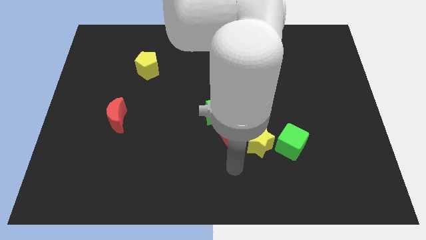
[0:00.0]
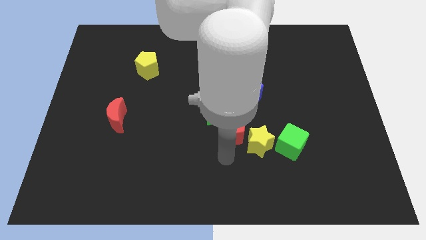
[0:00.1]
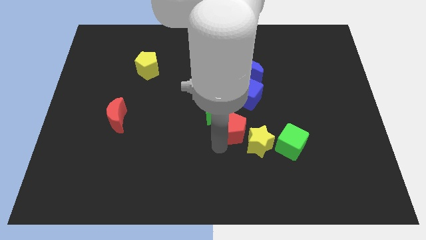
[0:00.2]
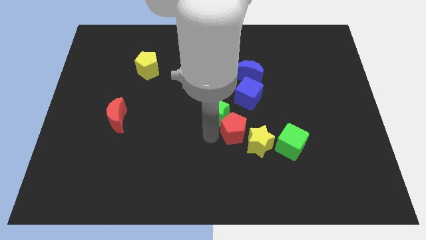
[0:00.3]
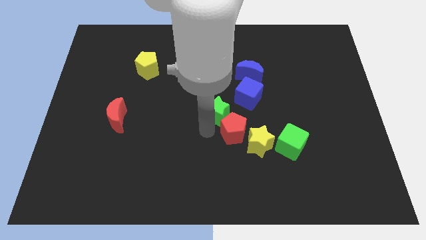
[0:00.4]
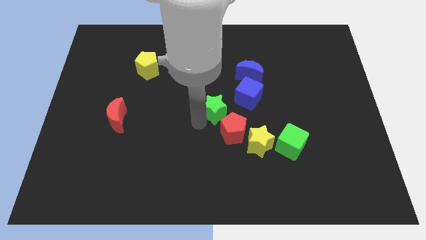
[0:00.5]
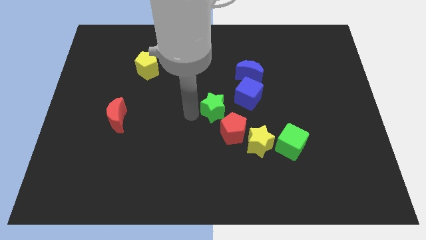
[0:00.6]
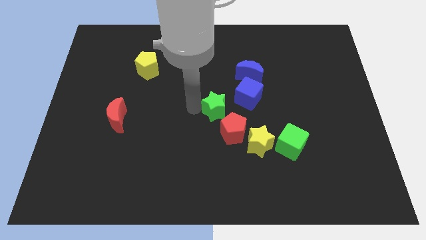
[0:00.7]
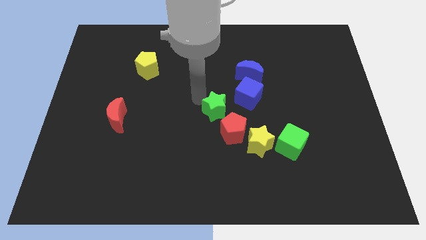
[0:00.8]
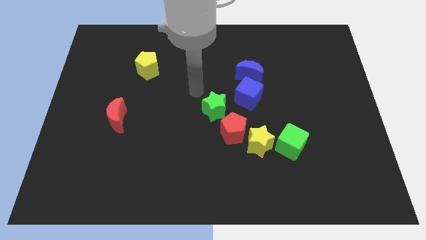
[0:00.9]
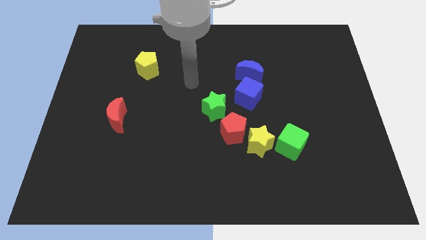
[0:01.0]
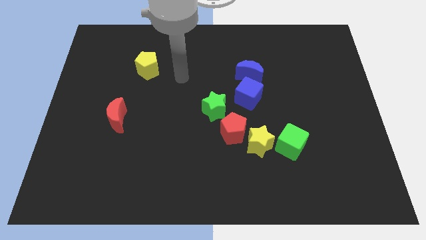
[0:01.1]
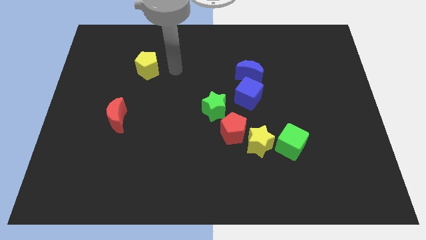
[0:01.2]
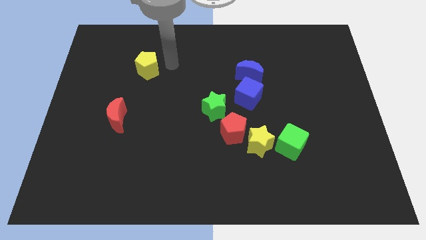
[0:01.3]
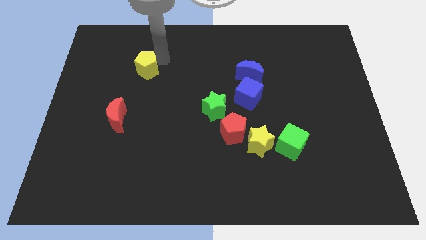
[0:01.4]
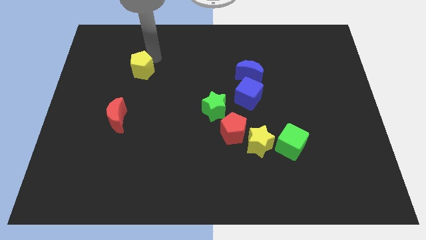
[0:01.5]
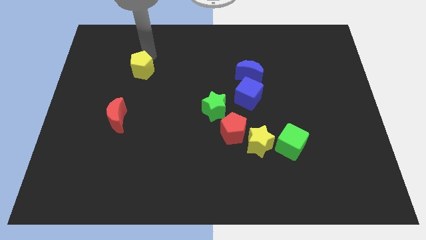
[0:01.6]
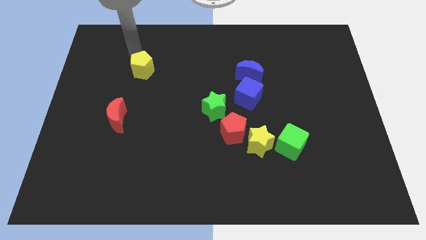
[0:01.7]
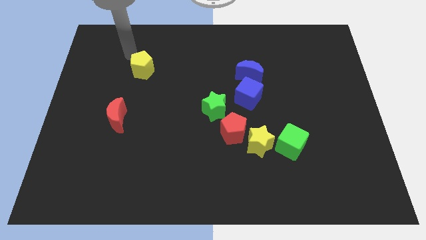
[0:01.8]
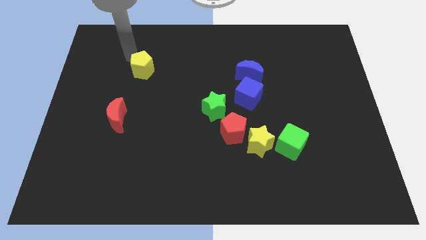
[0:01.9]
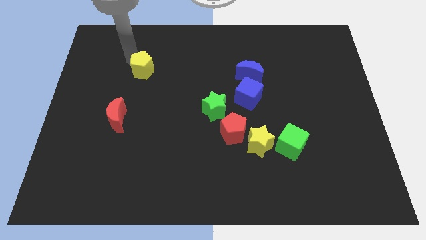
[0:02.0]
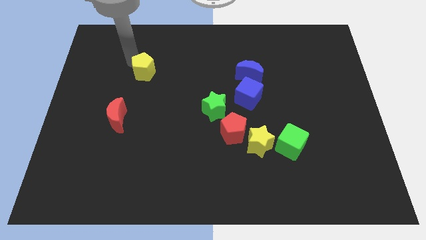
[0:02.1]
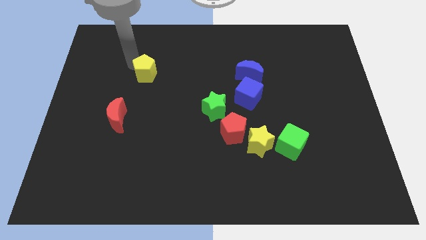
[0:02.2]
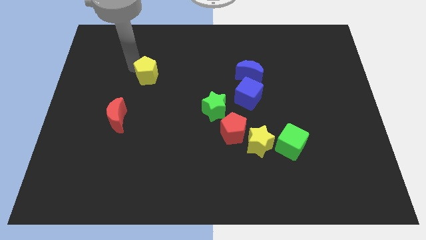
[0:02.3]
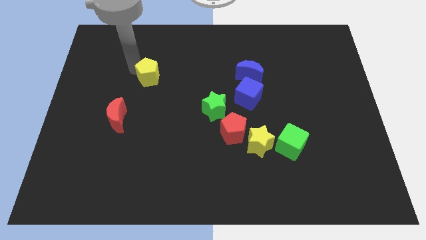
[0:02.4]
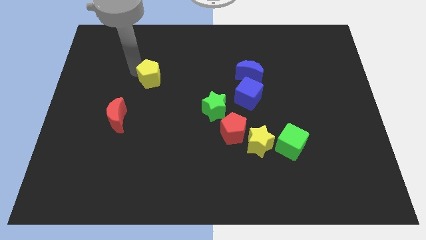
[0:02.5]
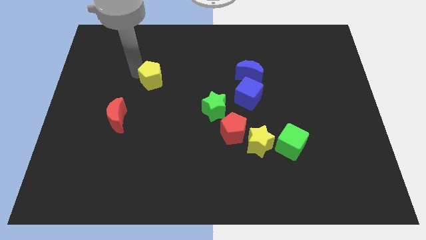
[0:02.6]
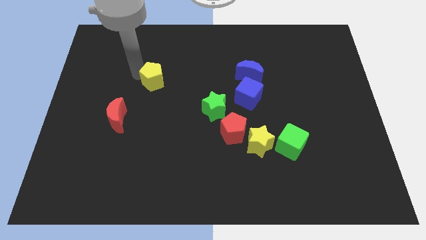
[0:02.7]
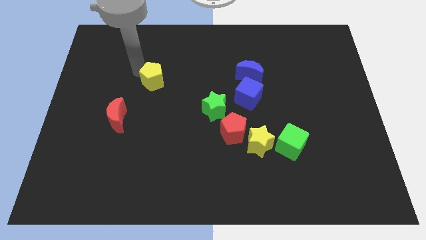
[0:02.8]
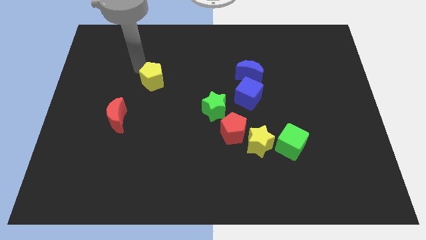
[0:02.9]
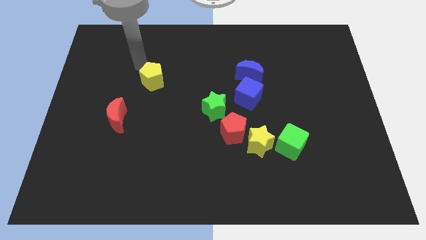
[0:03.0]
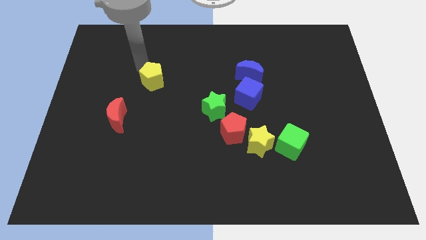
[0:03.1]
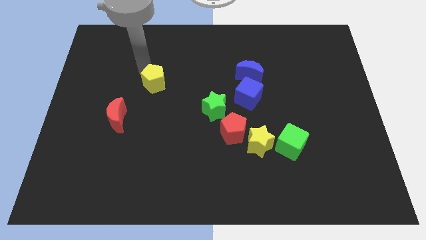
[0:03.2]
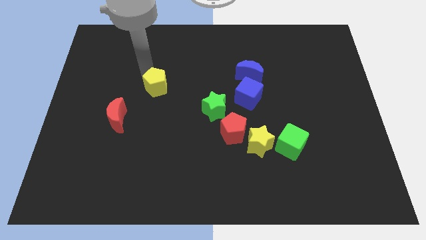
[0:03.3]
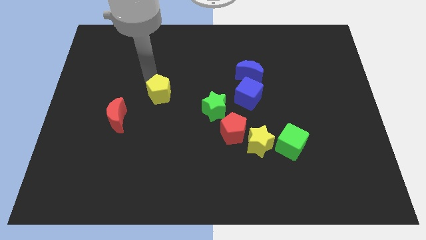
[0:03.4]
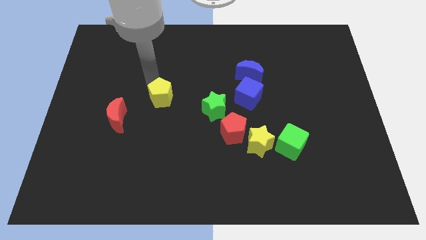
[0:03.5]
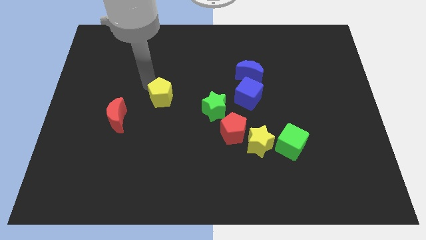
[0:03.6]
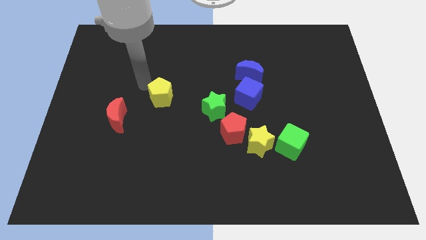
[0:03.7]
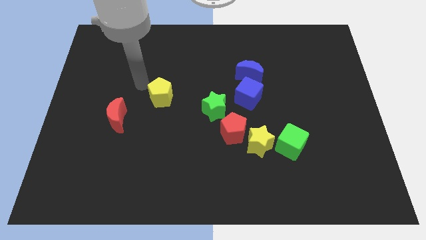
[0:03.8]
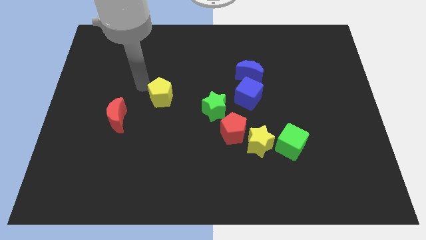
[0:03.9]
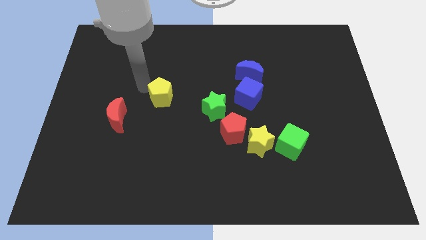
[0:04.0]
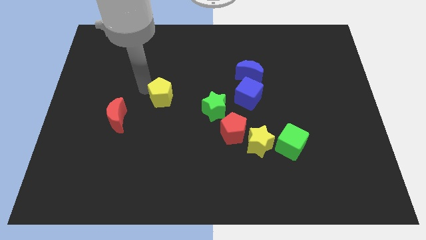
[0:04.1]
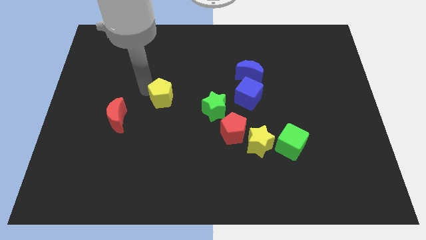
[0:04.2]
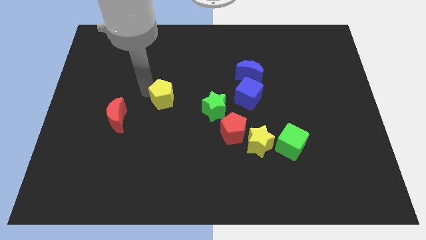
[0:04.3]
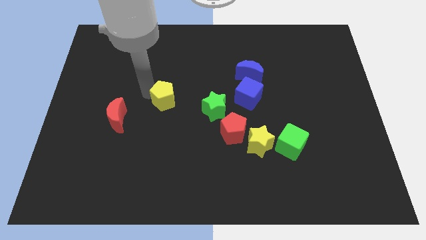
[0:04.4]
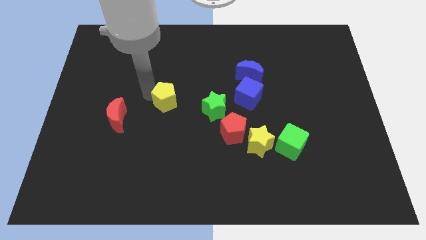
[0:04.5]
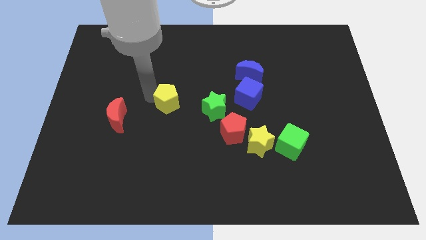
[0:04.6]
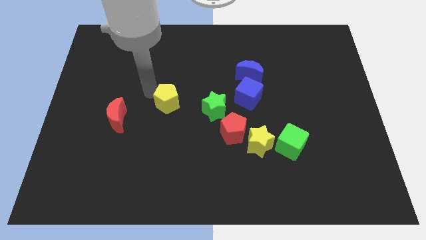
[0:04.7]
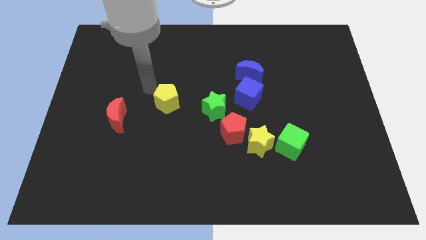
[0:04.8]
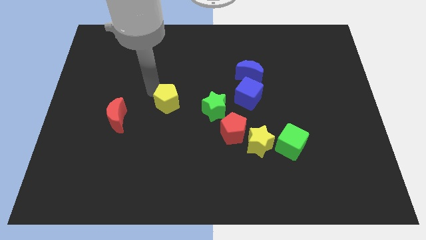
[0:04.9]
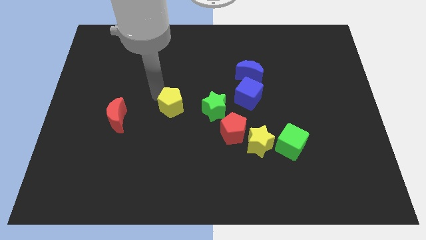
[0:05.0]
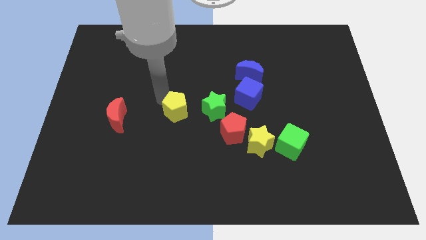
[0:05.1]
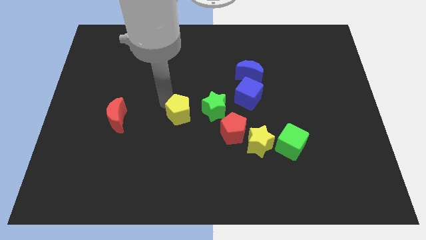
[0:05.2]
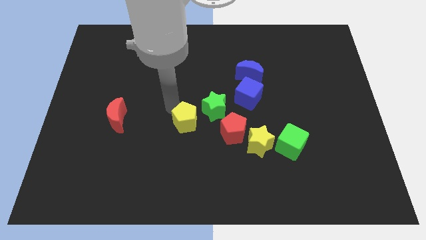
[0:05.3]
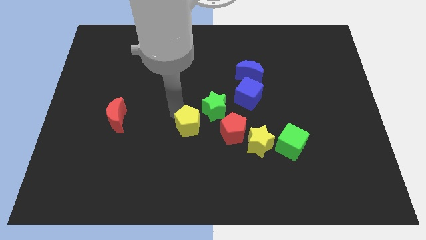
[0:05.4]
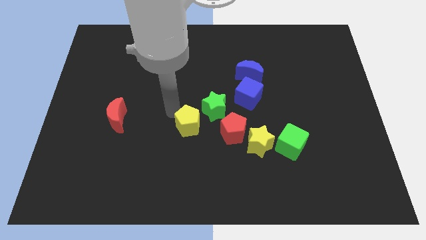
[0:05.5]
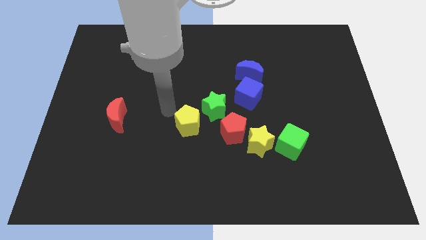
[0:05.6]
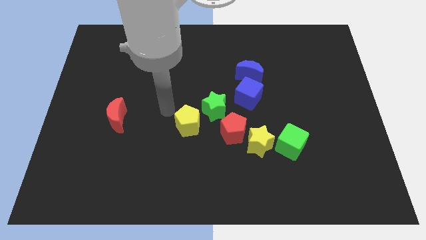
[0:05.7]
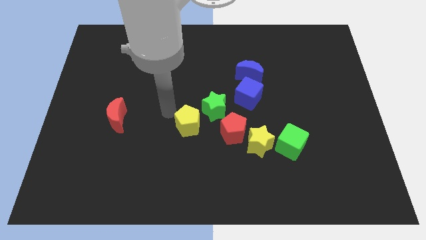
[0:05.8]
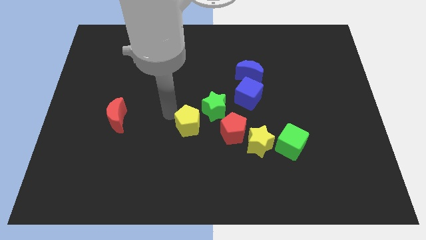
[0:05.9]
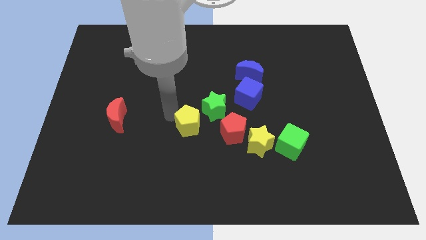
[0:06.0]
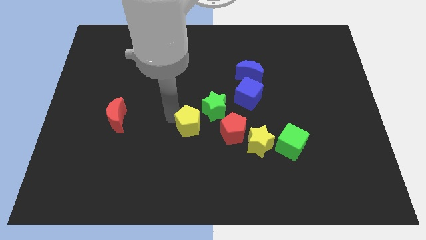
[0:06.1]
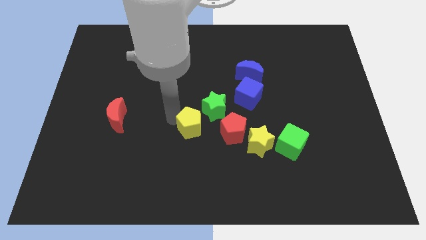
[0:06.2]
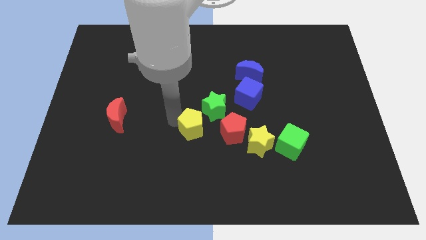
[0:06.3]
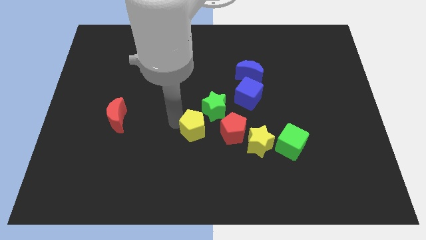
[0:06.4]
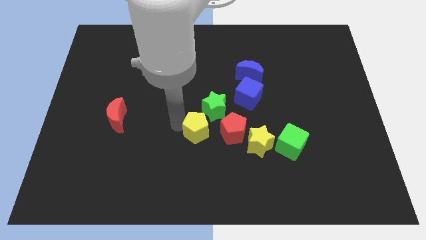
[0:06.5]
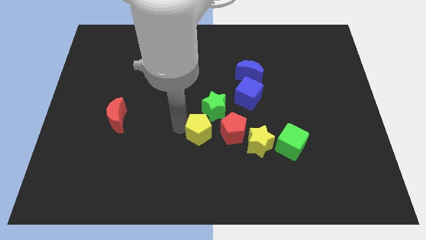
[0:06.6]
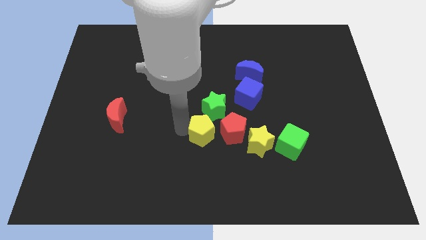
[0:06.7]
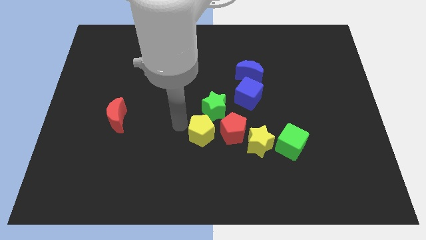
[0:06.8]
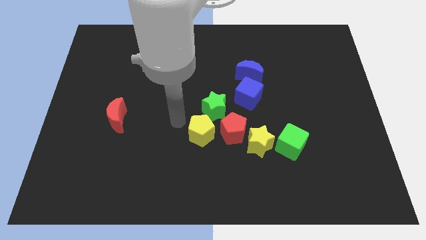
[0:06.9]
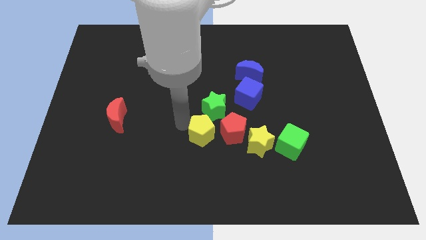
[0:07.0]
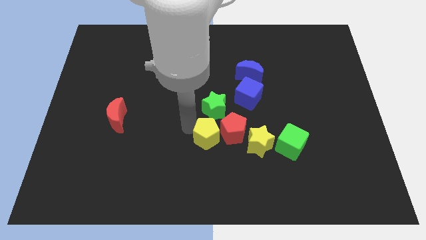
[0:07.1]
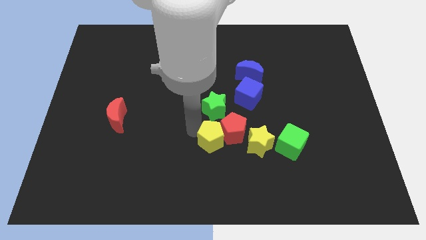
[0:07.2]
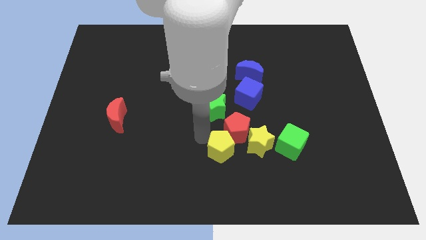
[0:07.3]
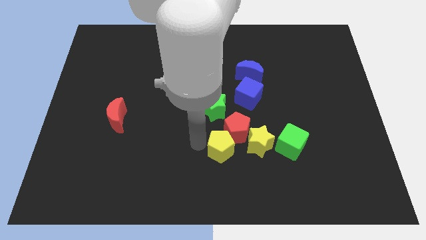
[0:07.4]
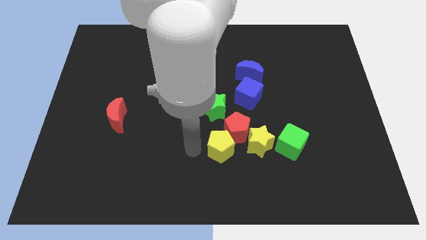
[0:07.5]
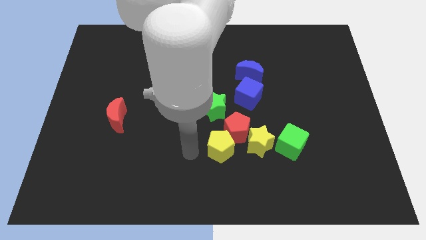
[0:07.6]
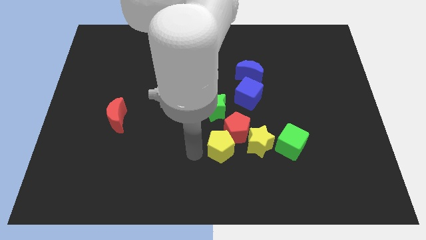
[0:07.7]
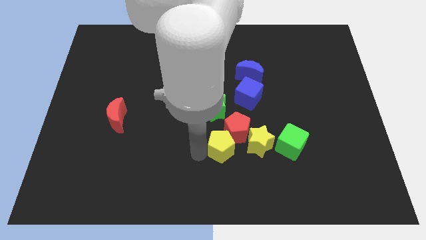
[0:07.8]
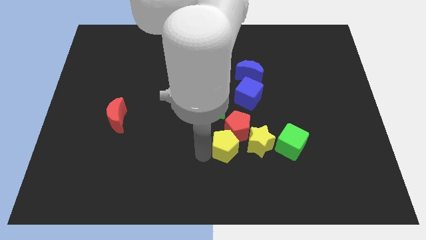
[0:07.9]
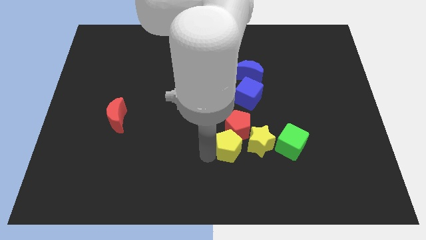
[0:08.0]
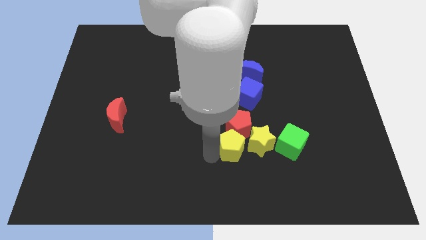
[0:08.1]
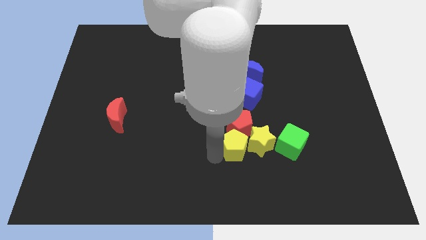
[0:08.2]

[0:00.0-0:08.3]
push the yellow pentagon towards the yellow star
